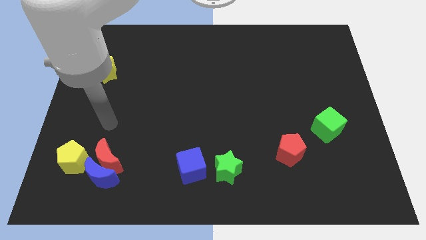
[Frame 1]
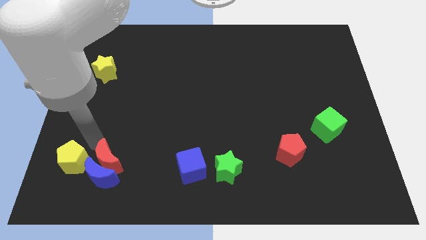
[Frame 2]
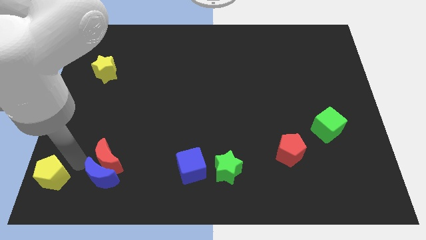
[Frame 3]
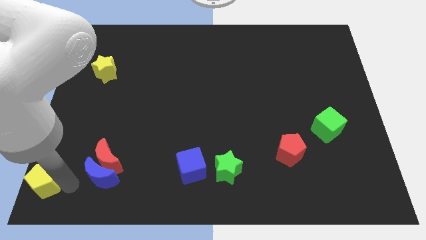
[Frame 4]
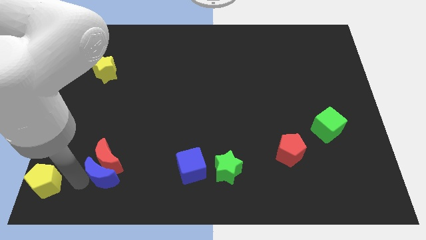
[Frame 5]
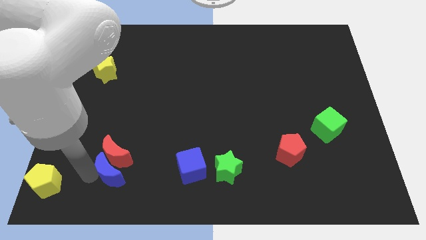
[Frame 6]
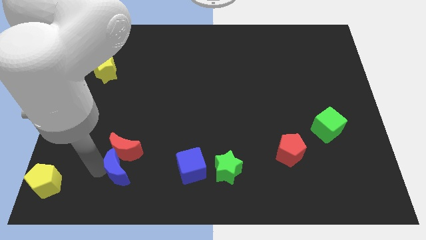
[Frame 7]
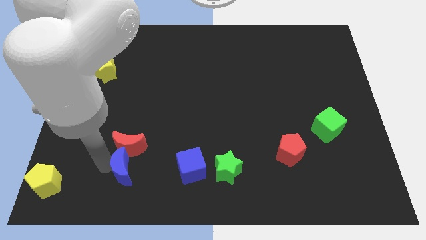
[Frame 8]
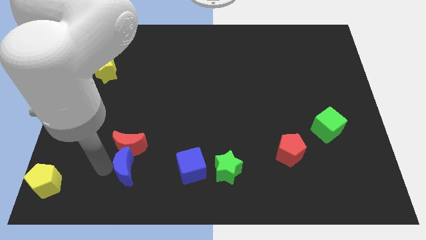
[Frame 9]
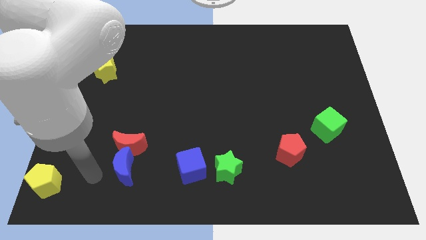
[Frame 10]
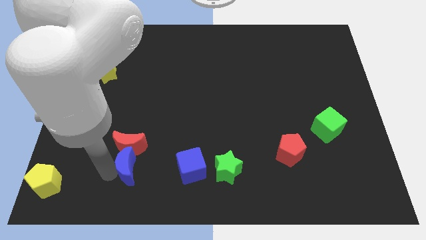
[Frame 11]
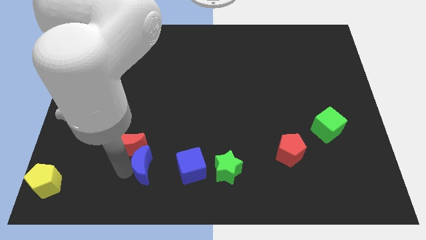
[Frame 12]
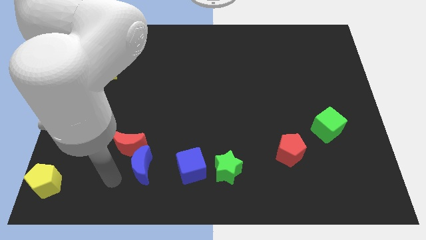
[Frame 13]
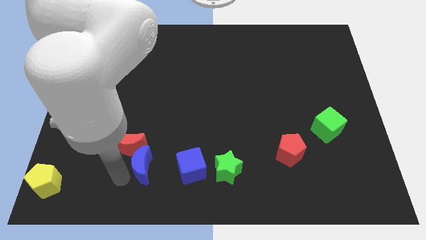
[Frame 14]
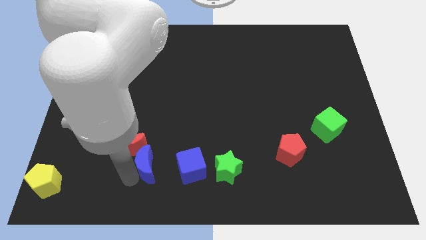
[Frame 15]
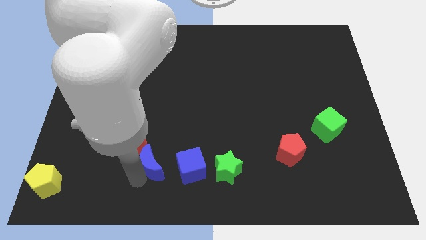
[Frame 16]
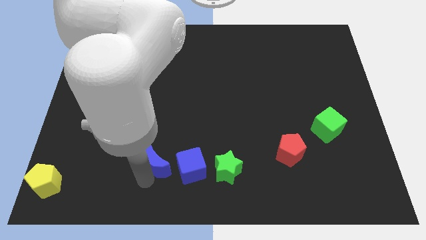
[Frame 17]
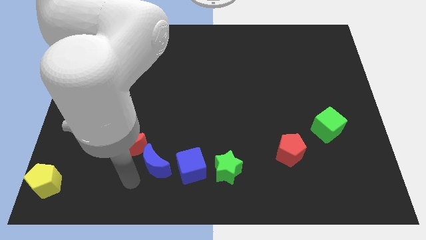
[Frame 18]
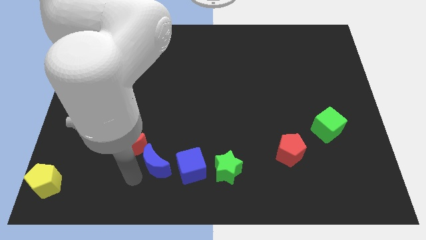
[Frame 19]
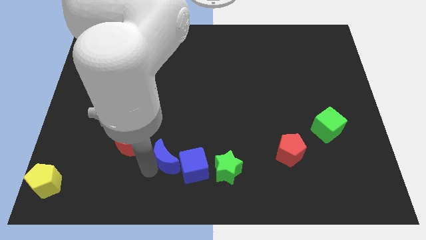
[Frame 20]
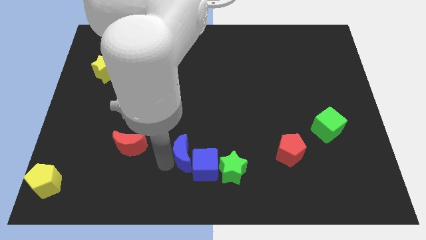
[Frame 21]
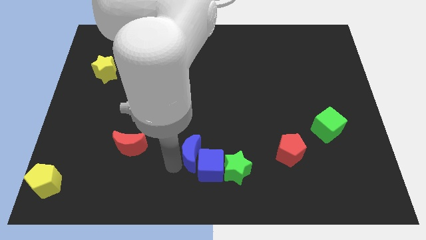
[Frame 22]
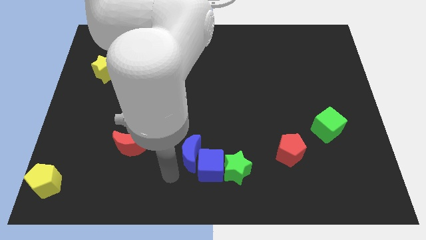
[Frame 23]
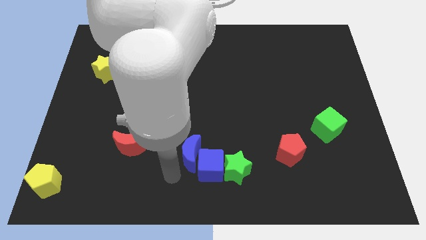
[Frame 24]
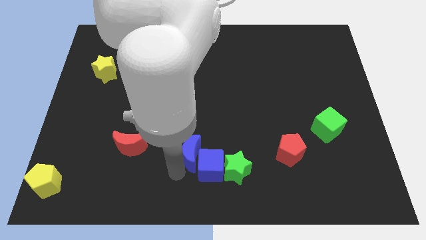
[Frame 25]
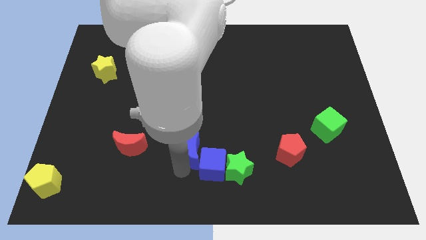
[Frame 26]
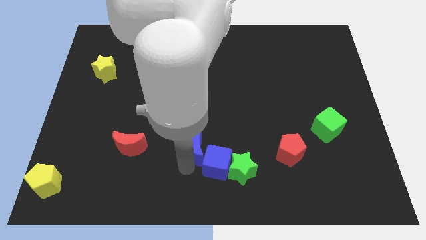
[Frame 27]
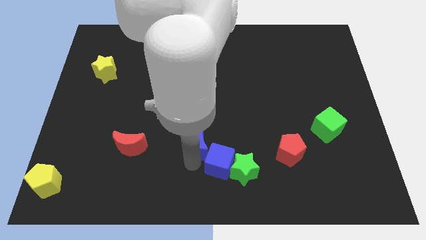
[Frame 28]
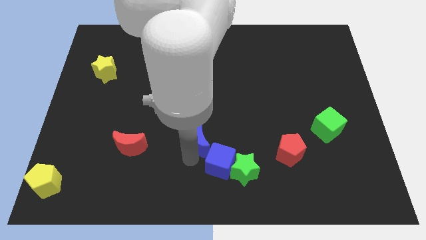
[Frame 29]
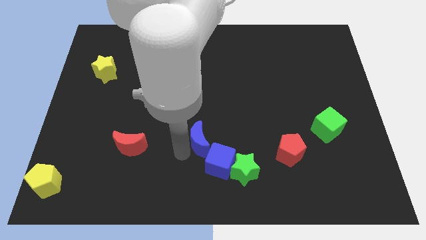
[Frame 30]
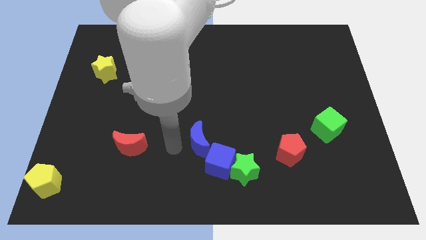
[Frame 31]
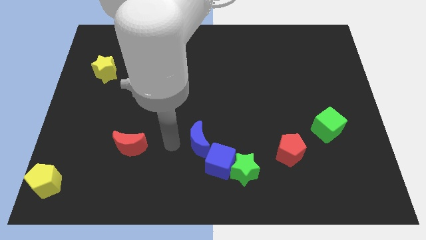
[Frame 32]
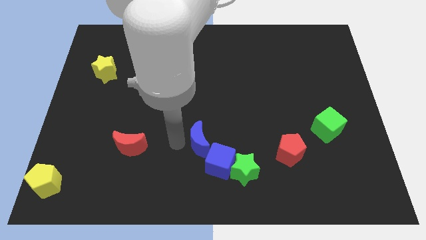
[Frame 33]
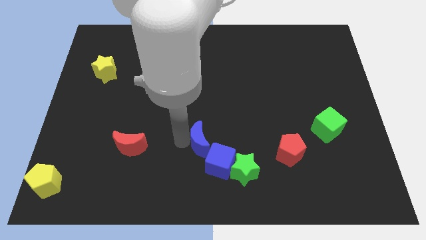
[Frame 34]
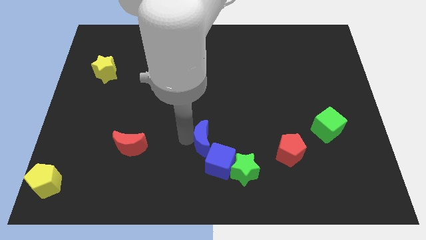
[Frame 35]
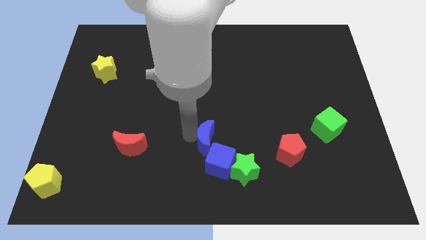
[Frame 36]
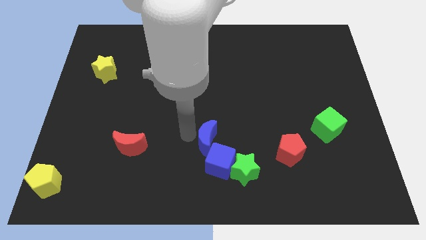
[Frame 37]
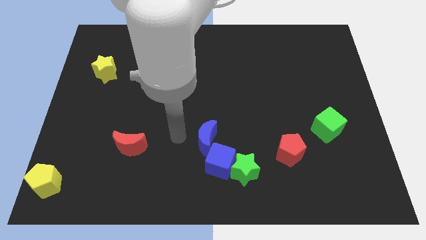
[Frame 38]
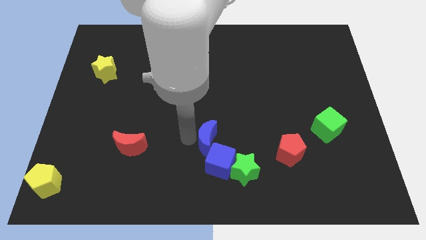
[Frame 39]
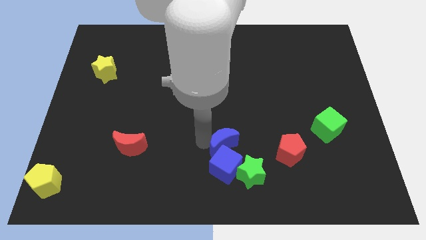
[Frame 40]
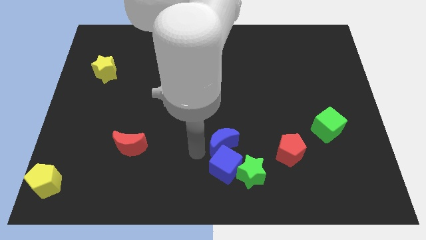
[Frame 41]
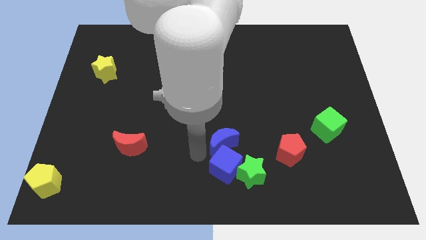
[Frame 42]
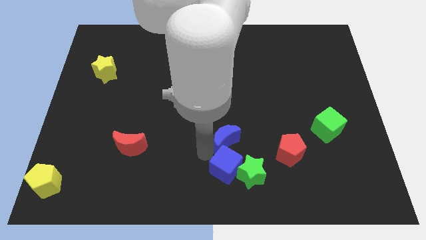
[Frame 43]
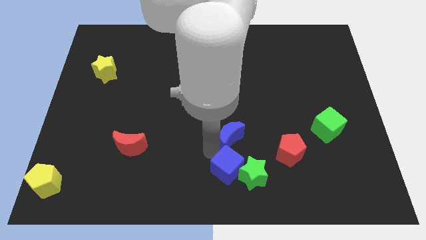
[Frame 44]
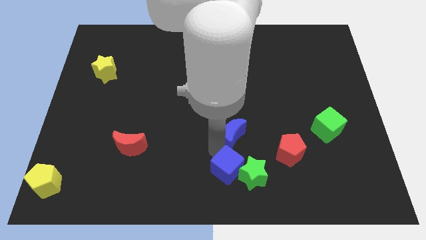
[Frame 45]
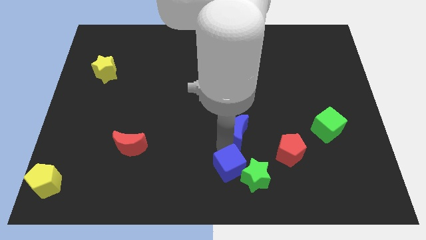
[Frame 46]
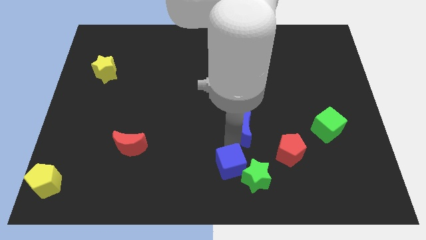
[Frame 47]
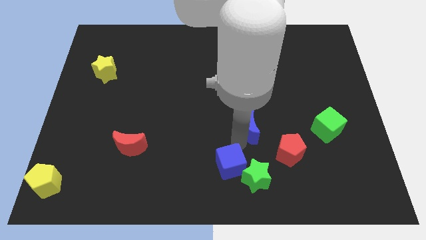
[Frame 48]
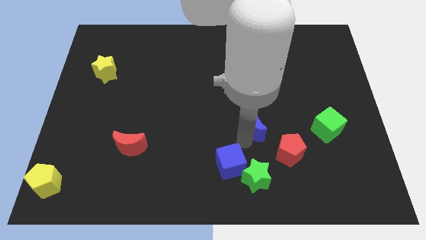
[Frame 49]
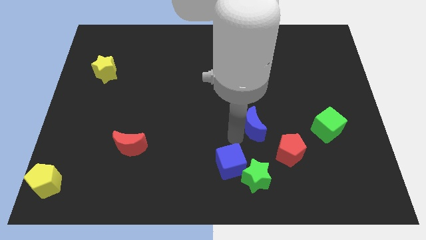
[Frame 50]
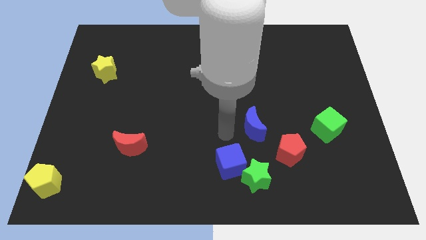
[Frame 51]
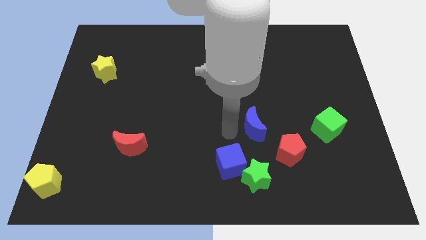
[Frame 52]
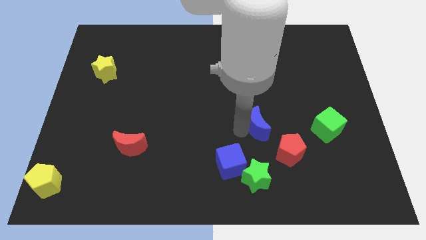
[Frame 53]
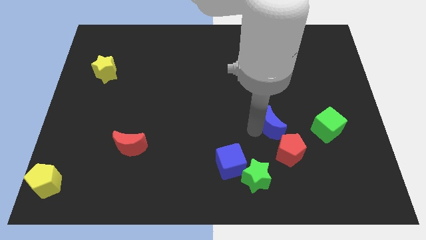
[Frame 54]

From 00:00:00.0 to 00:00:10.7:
put the blue moon to the top side of the red pentagon

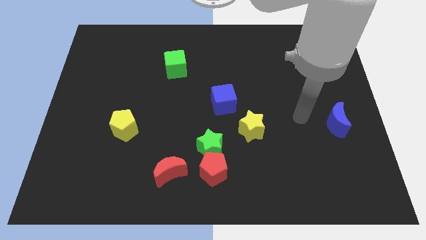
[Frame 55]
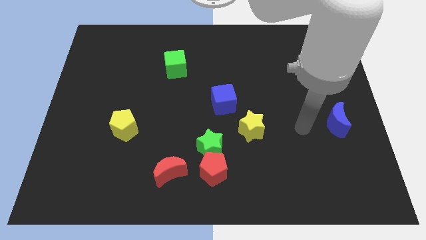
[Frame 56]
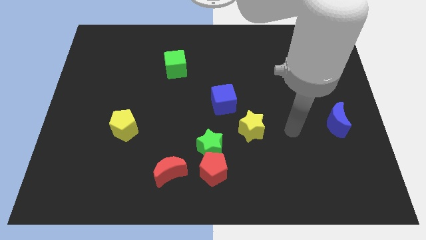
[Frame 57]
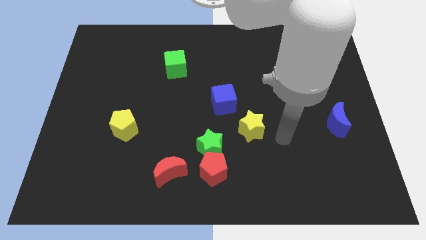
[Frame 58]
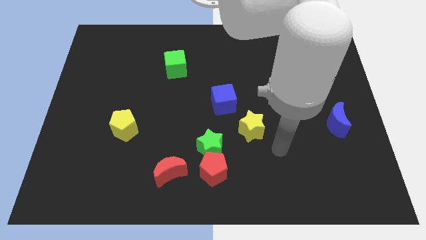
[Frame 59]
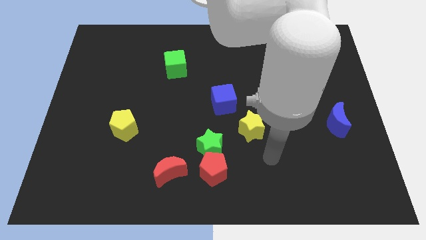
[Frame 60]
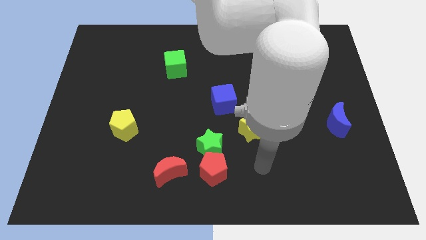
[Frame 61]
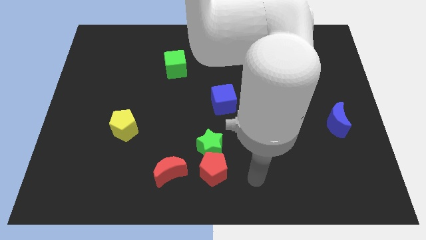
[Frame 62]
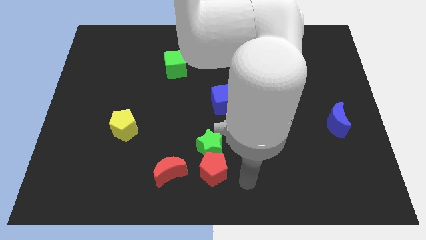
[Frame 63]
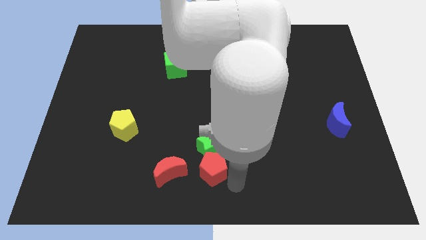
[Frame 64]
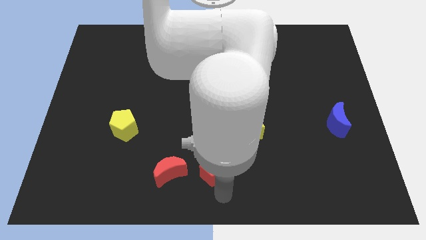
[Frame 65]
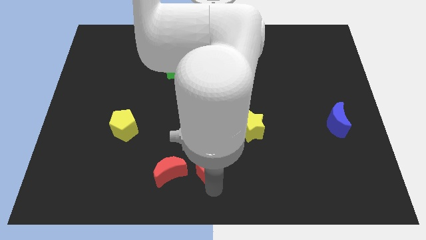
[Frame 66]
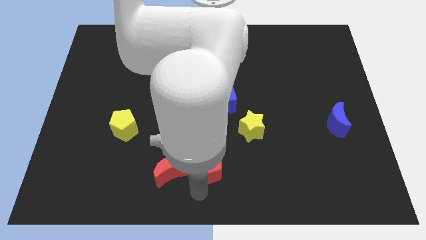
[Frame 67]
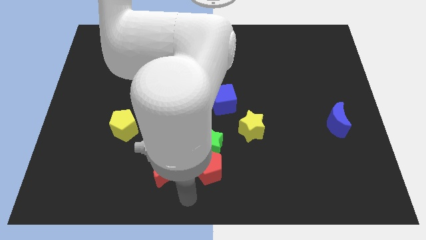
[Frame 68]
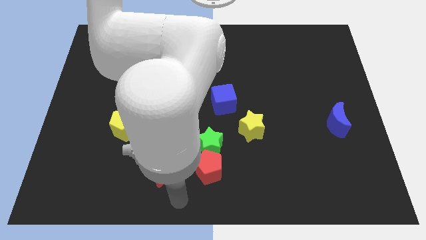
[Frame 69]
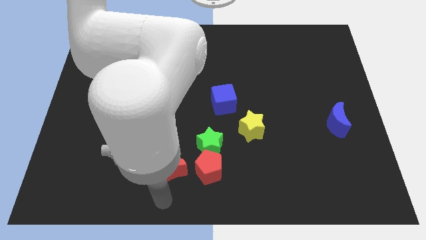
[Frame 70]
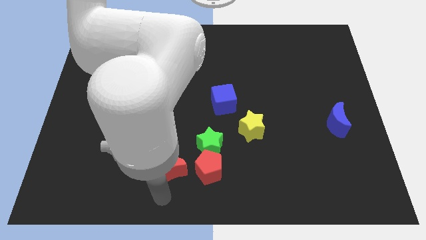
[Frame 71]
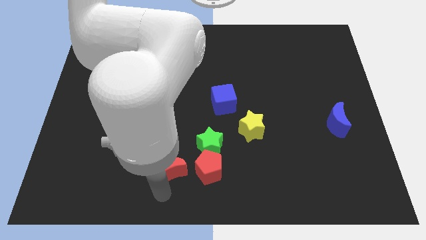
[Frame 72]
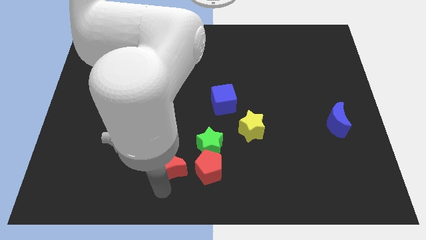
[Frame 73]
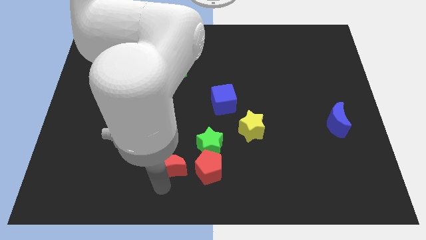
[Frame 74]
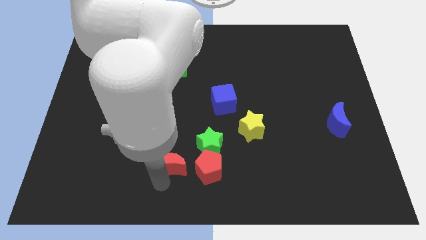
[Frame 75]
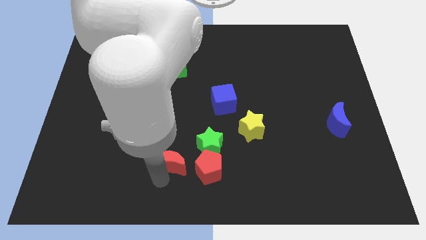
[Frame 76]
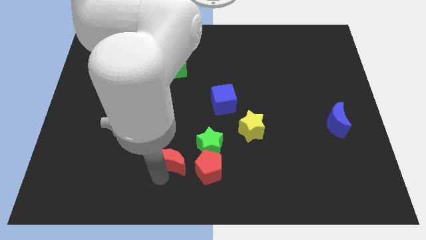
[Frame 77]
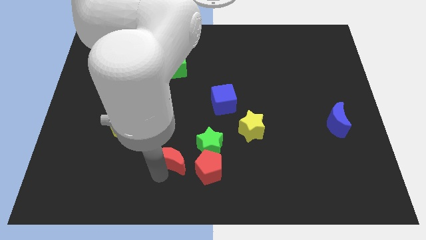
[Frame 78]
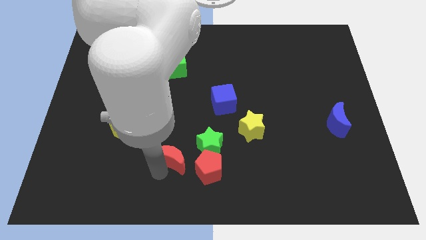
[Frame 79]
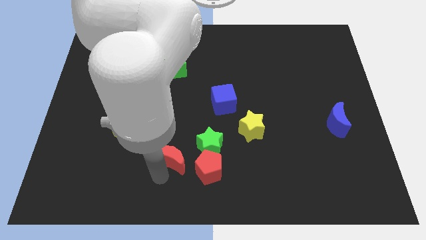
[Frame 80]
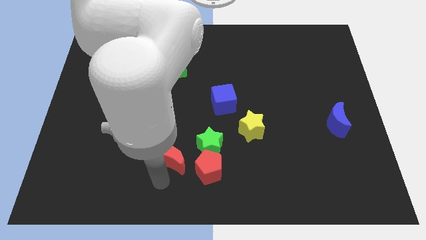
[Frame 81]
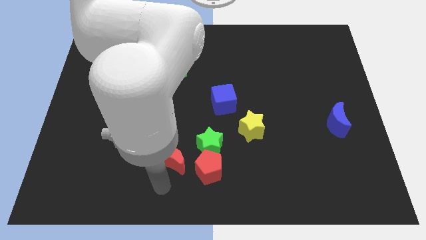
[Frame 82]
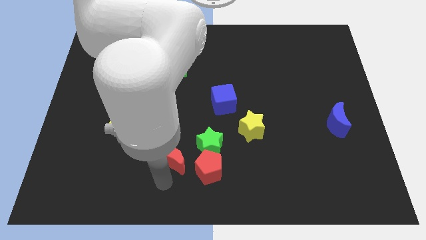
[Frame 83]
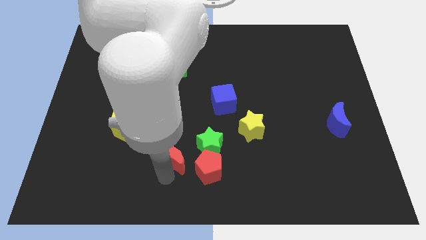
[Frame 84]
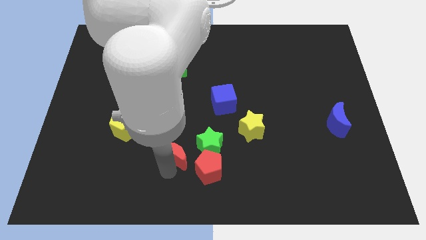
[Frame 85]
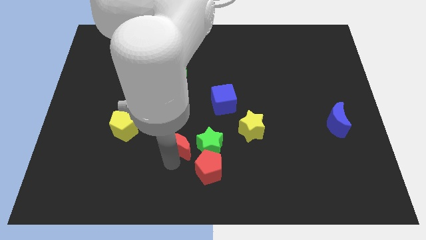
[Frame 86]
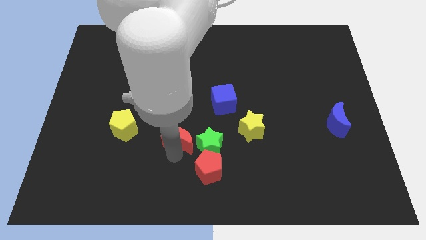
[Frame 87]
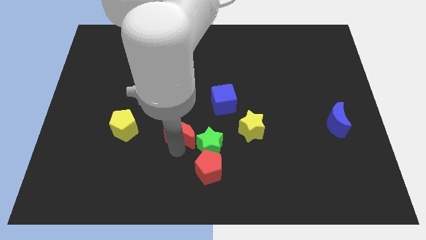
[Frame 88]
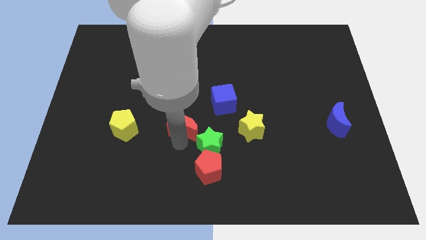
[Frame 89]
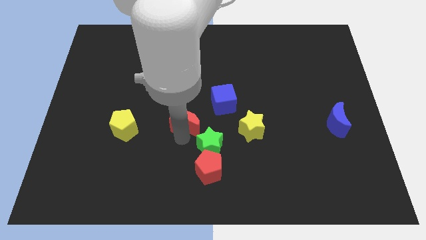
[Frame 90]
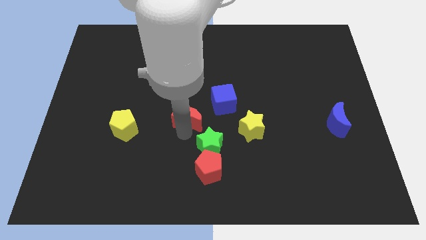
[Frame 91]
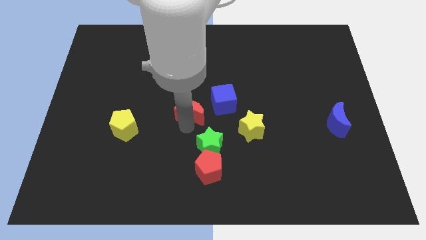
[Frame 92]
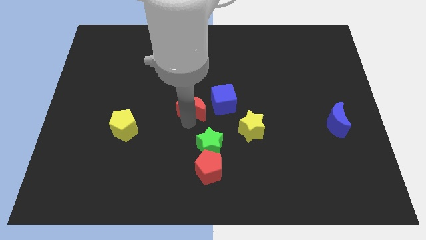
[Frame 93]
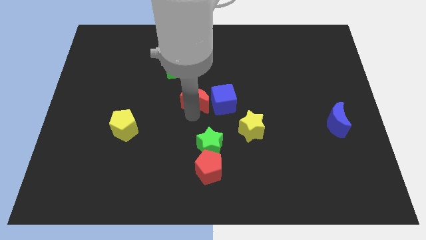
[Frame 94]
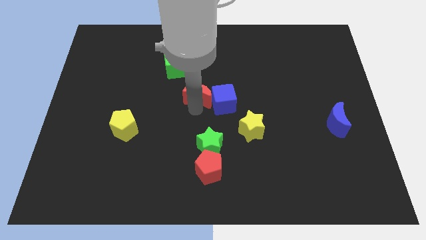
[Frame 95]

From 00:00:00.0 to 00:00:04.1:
put the red moon to the bottom right of the green cube
